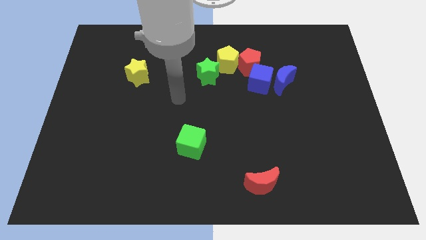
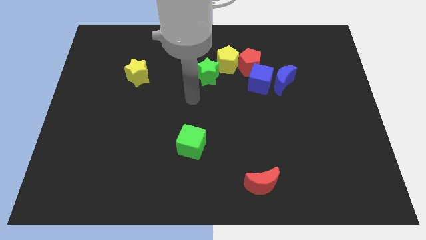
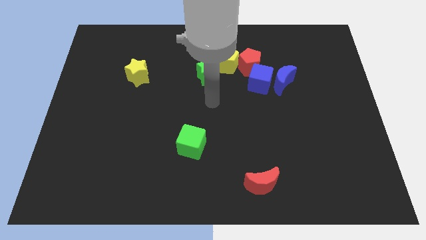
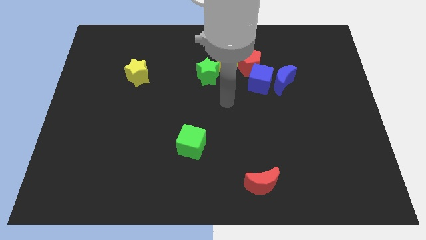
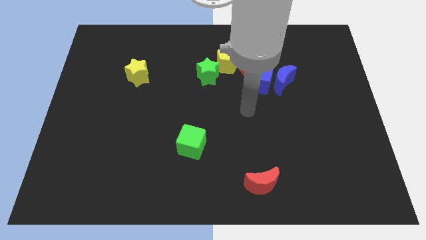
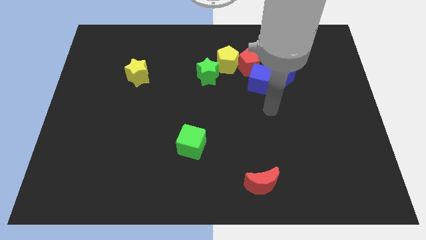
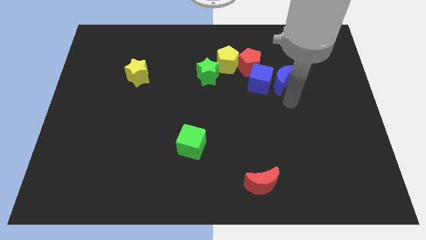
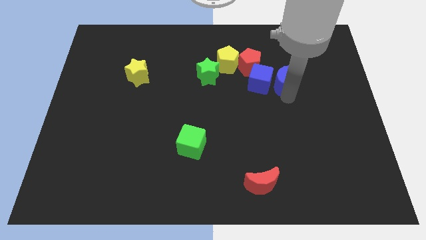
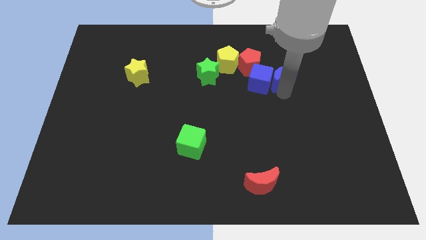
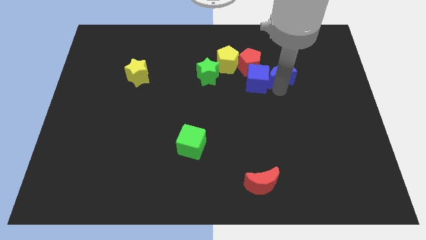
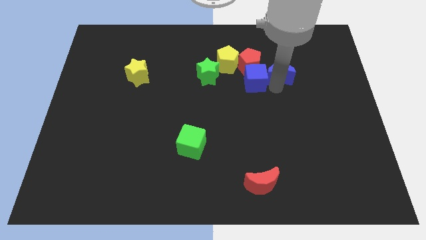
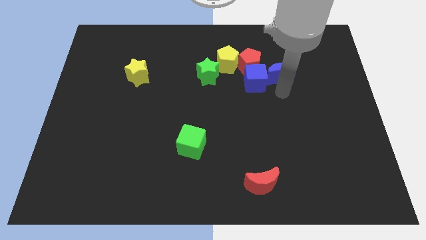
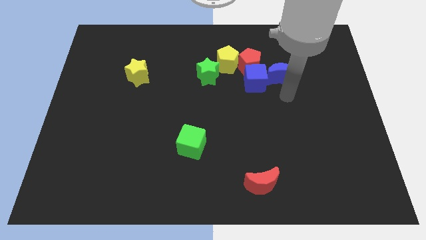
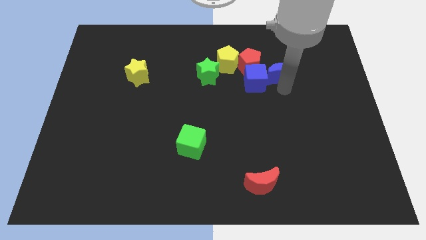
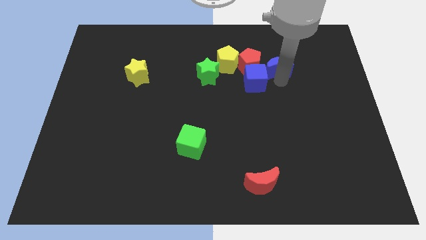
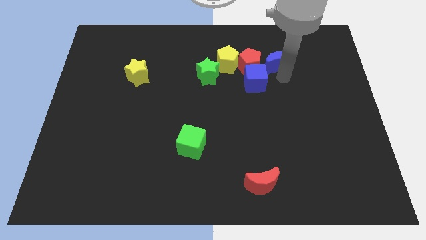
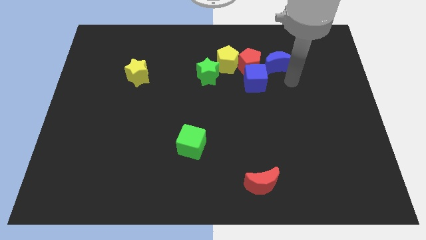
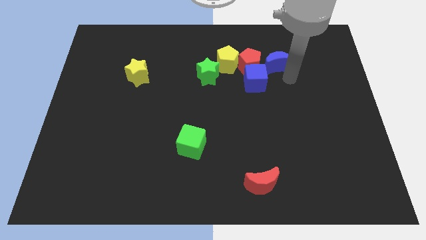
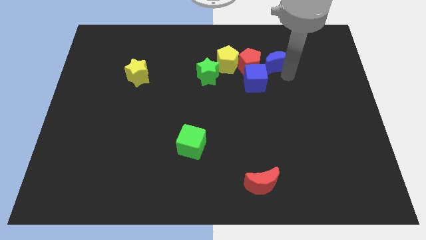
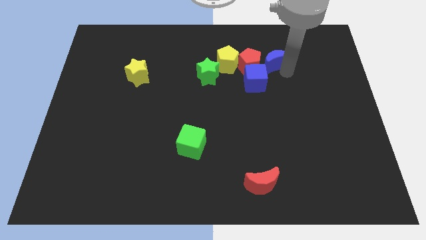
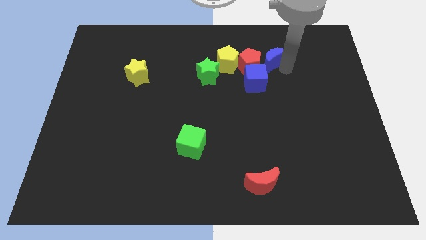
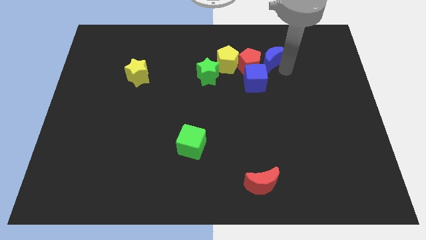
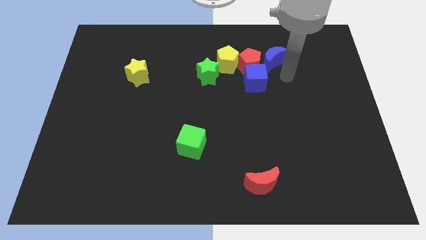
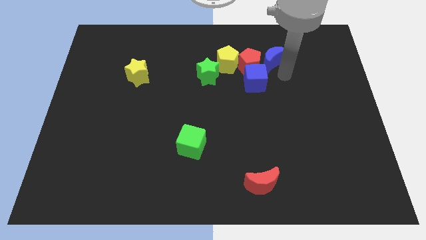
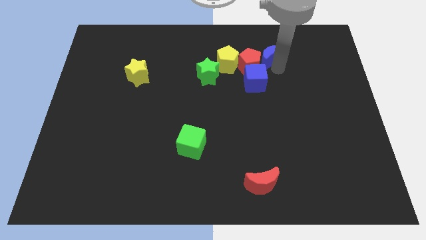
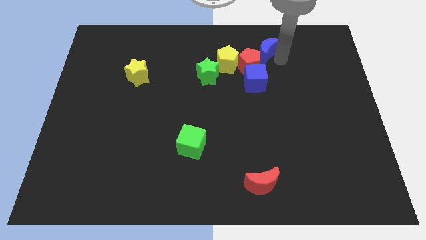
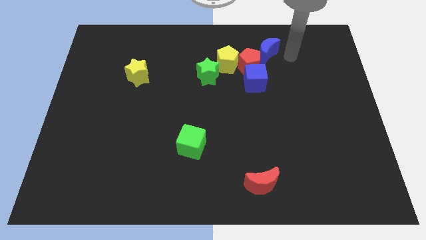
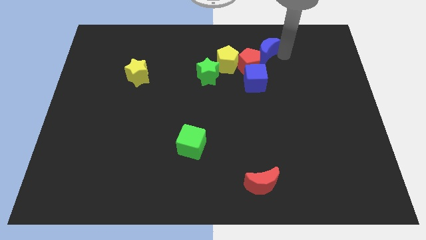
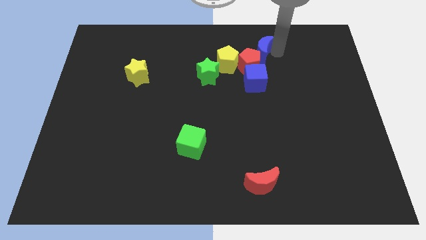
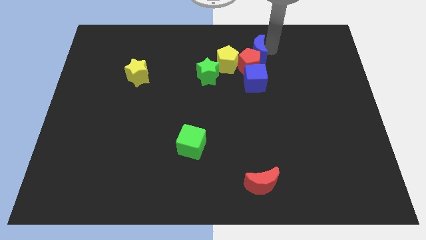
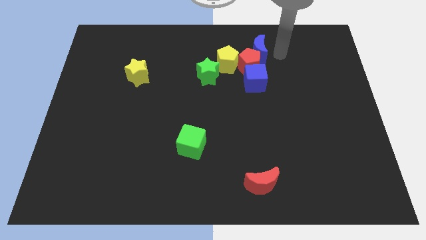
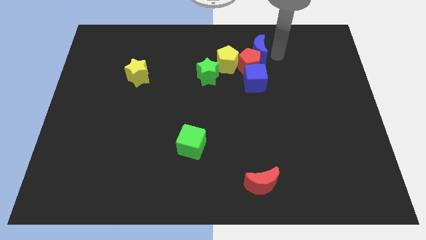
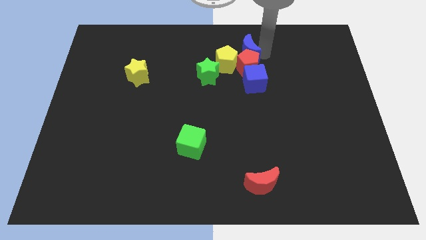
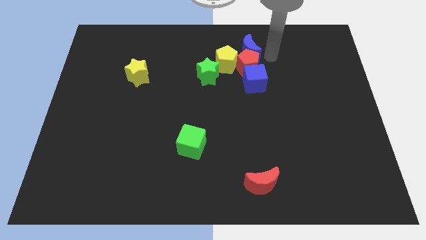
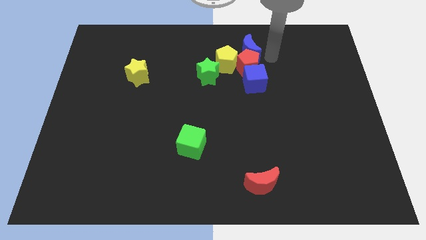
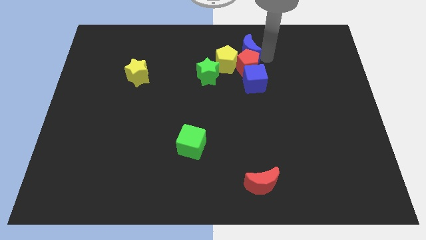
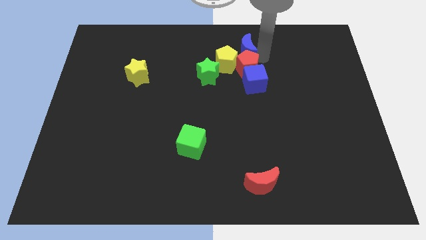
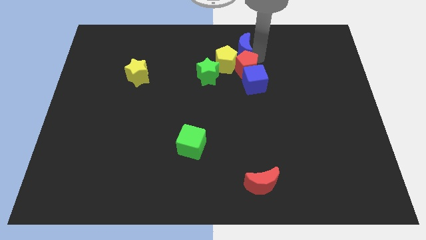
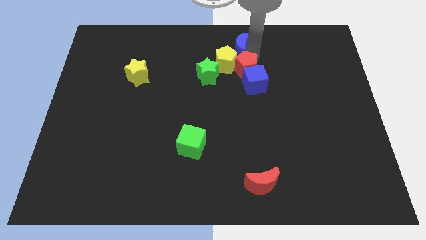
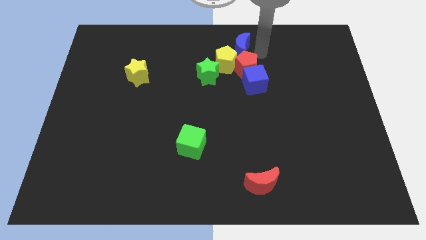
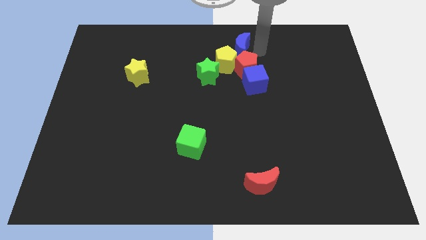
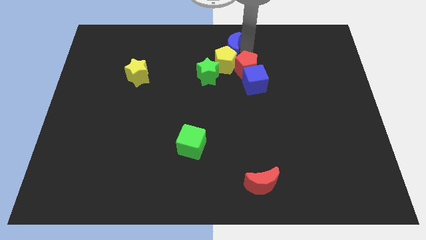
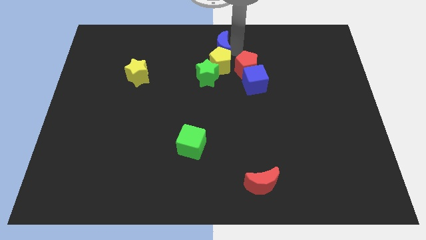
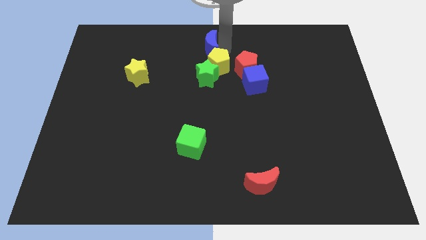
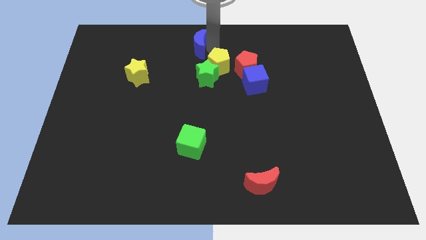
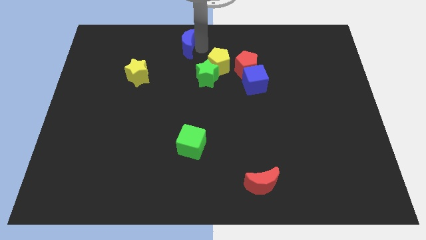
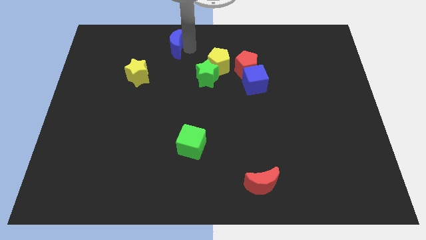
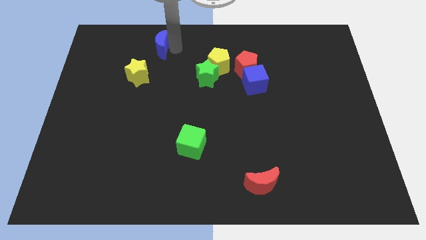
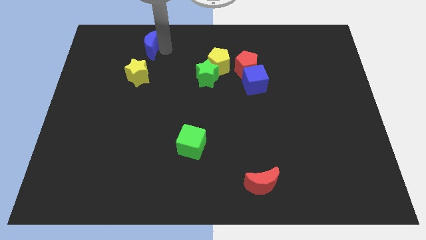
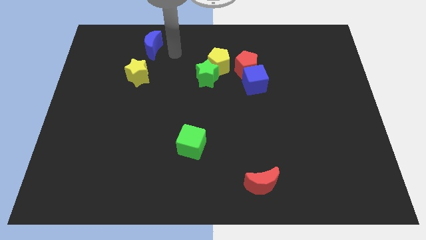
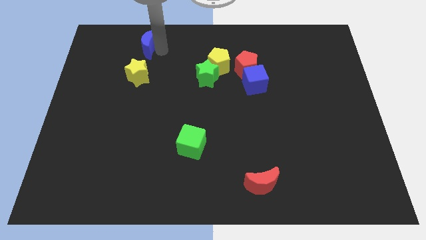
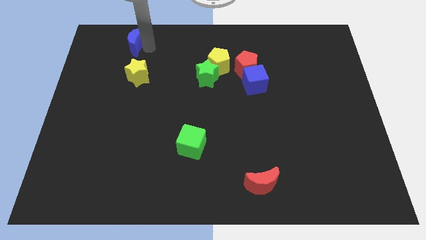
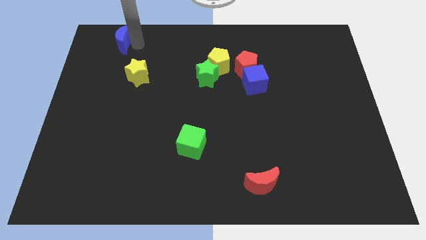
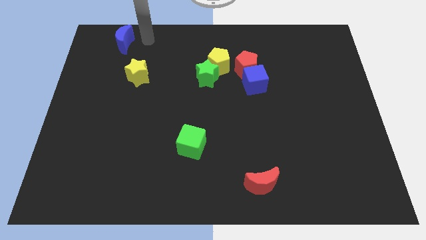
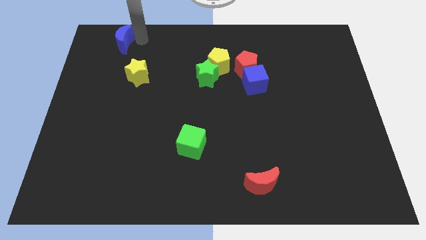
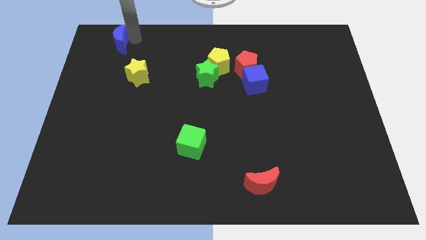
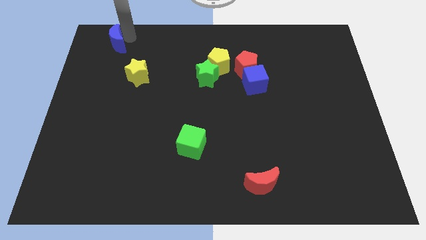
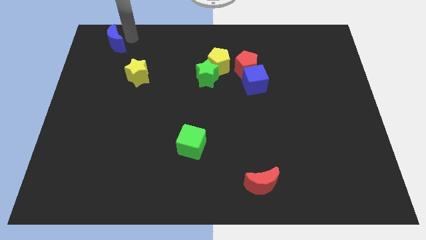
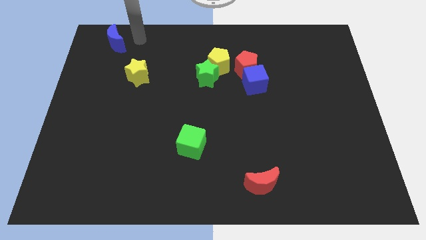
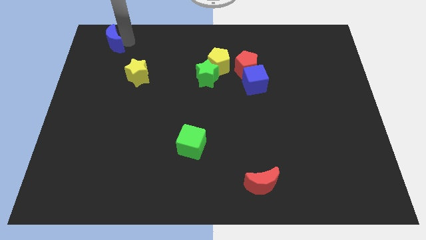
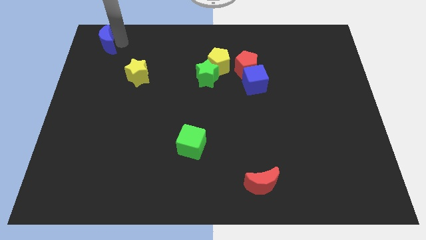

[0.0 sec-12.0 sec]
slide the blue moon to the top left corner
